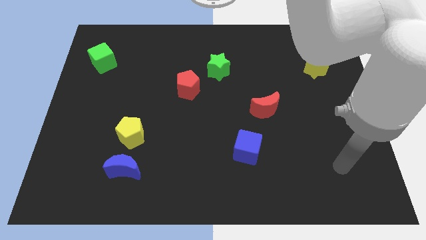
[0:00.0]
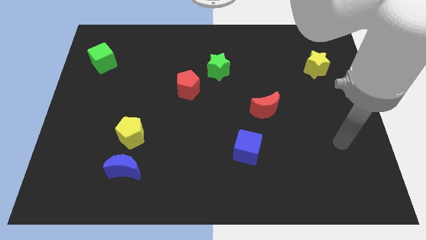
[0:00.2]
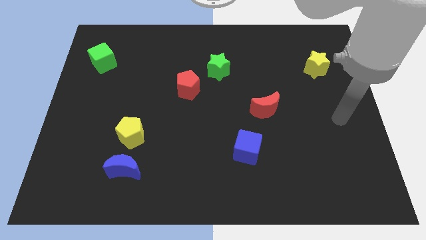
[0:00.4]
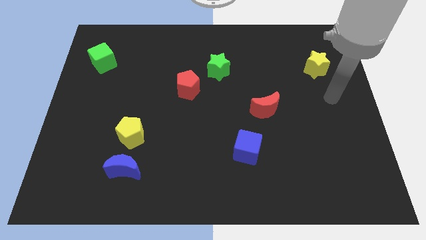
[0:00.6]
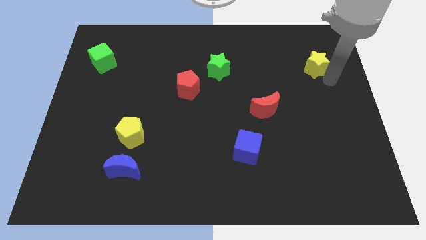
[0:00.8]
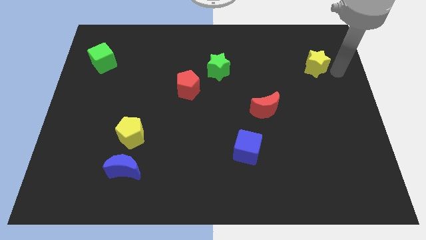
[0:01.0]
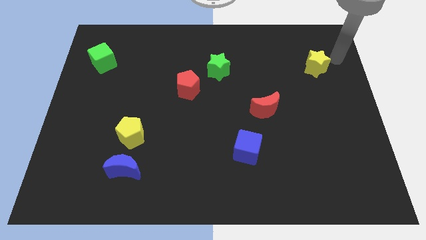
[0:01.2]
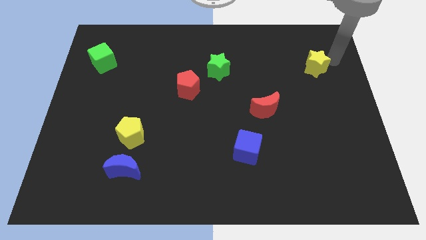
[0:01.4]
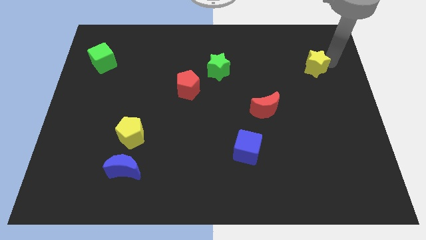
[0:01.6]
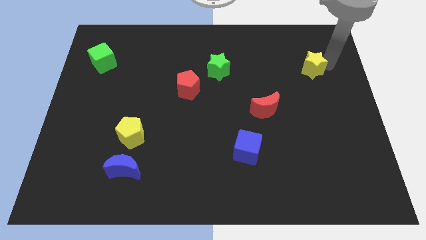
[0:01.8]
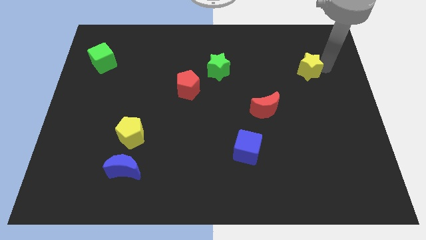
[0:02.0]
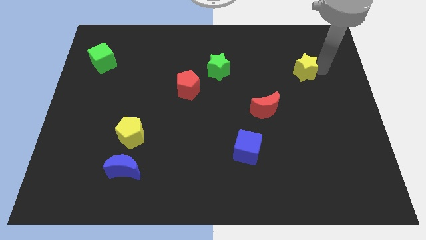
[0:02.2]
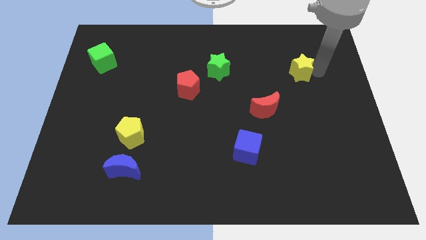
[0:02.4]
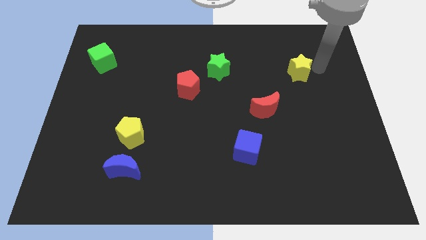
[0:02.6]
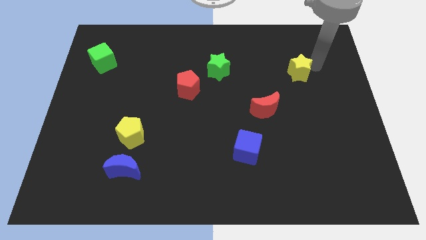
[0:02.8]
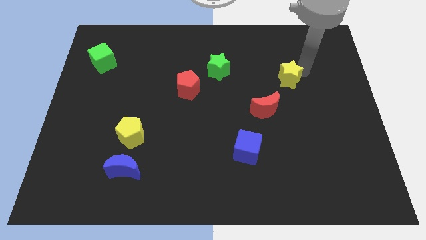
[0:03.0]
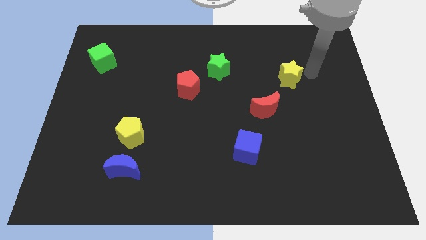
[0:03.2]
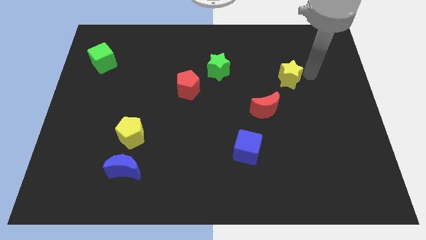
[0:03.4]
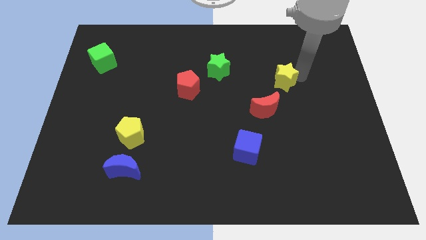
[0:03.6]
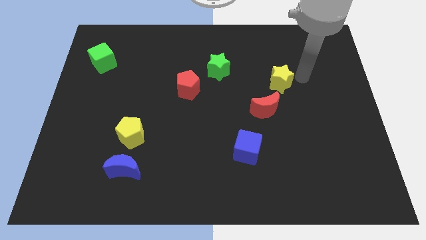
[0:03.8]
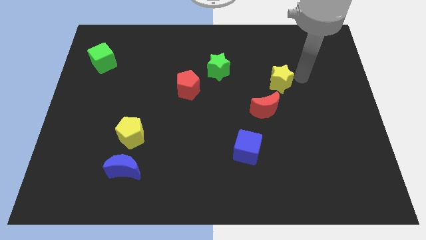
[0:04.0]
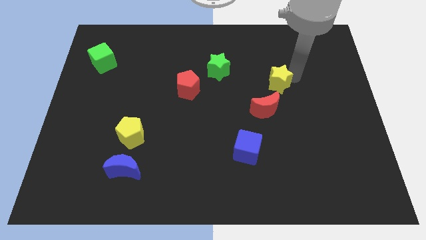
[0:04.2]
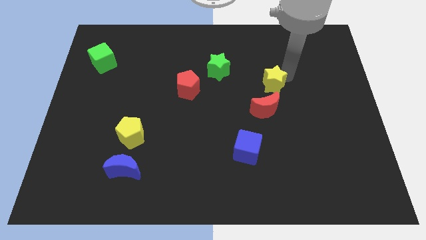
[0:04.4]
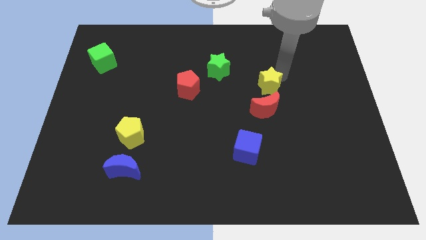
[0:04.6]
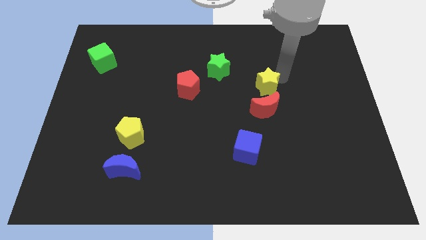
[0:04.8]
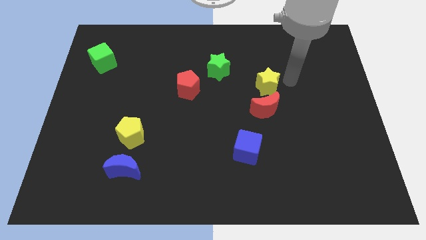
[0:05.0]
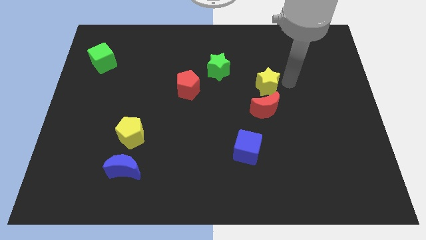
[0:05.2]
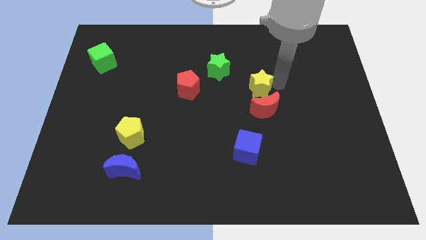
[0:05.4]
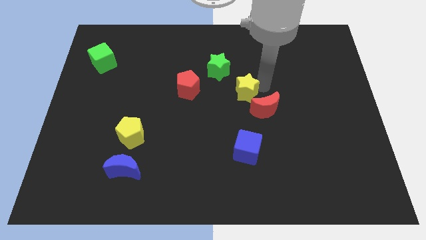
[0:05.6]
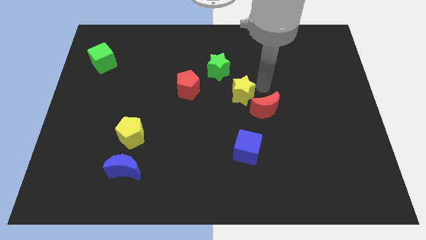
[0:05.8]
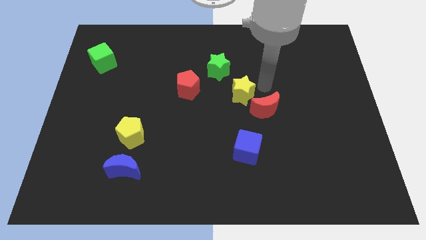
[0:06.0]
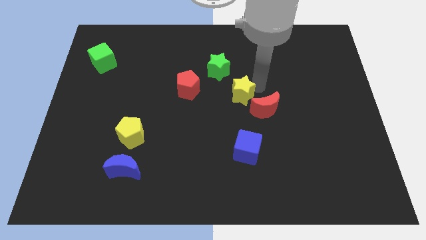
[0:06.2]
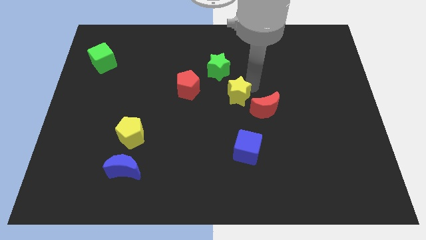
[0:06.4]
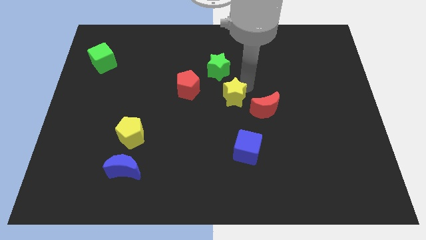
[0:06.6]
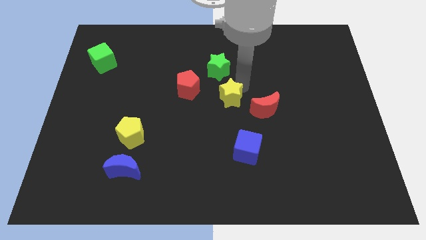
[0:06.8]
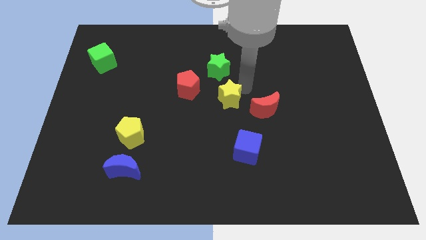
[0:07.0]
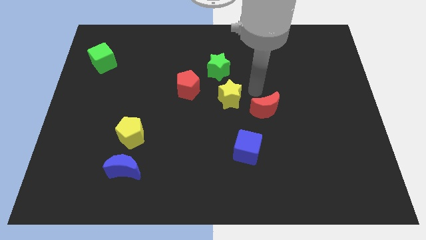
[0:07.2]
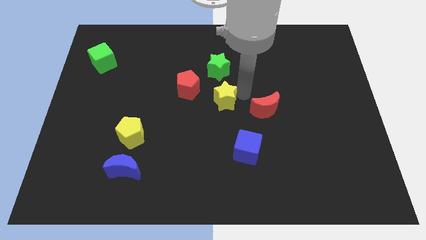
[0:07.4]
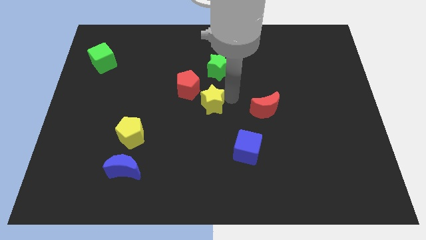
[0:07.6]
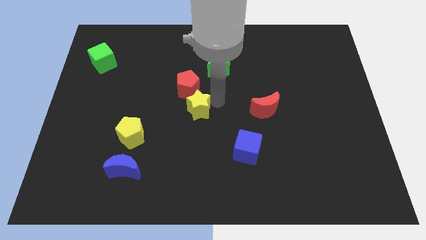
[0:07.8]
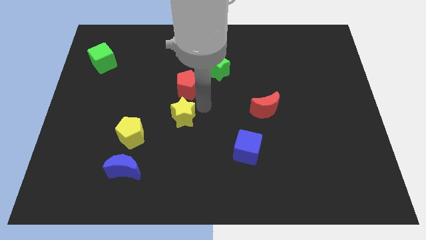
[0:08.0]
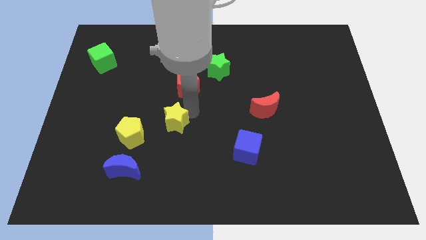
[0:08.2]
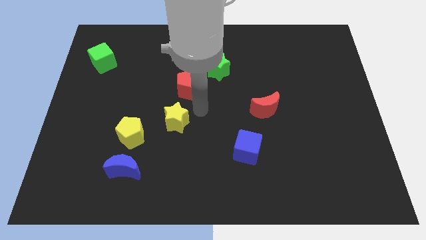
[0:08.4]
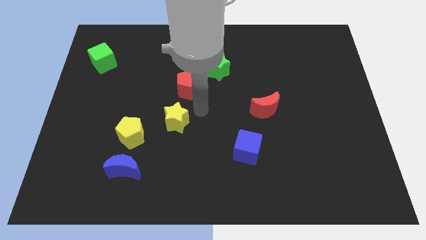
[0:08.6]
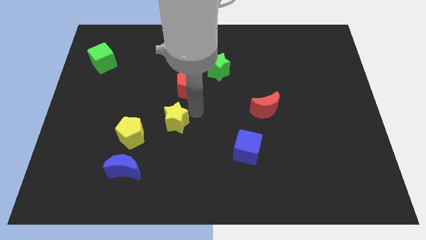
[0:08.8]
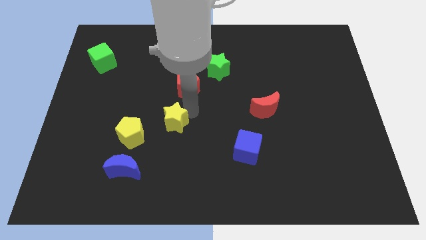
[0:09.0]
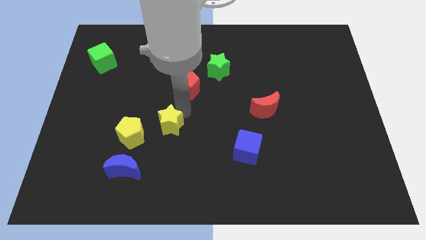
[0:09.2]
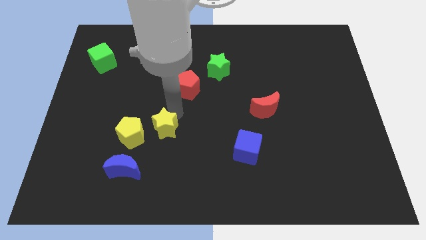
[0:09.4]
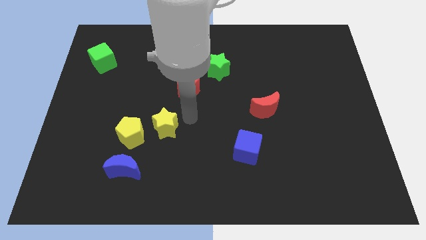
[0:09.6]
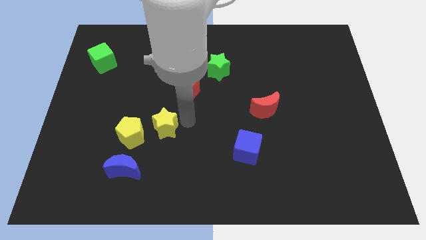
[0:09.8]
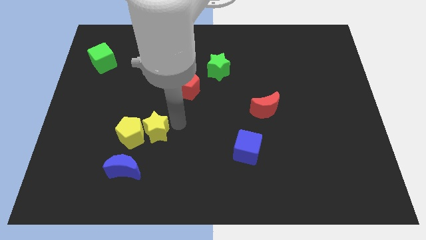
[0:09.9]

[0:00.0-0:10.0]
move the yellow star next to the yellow pentagon

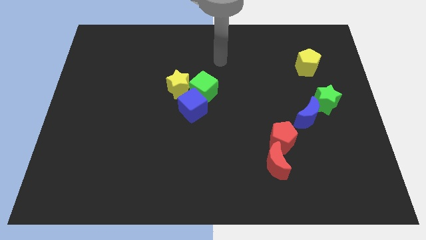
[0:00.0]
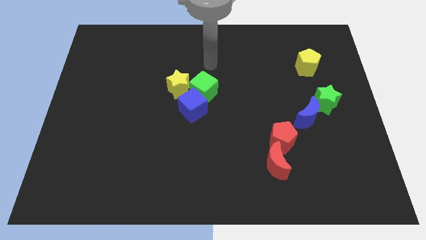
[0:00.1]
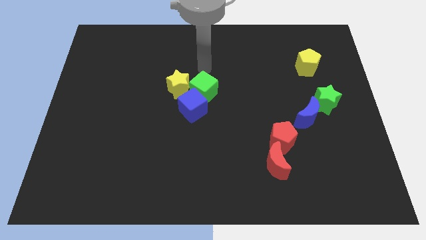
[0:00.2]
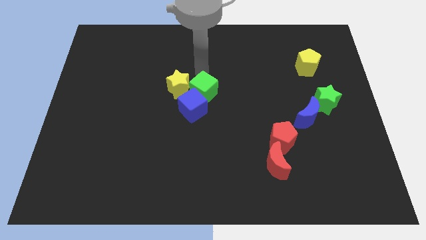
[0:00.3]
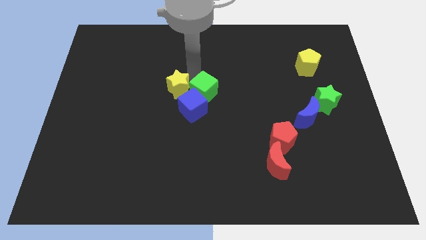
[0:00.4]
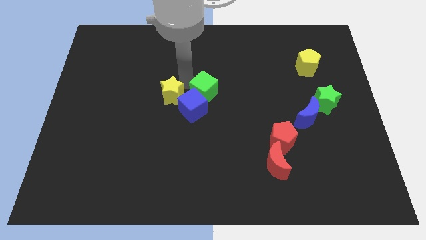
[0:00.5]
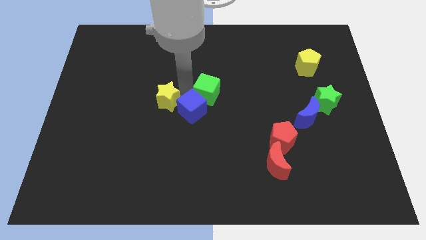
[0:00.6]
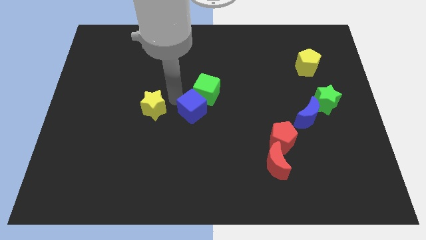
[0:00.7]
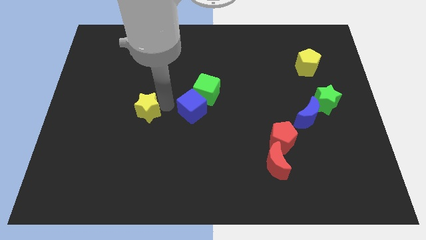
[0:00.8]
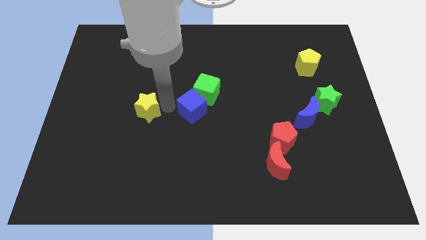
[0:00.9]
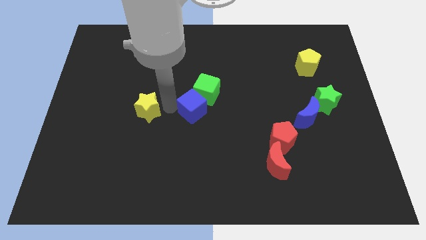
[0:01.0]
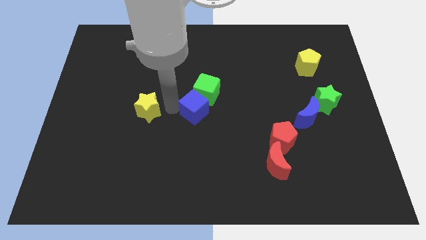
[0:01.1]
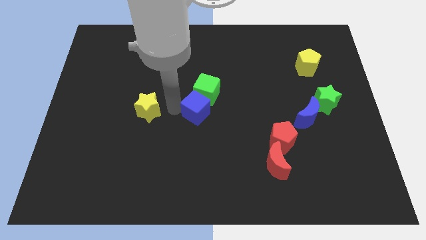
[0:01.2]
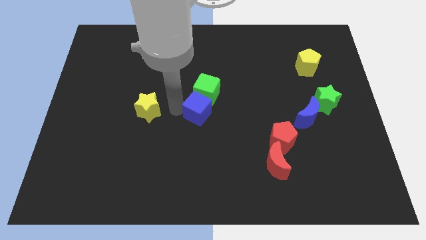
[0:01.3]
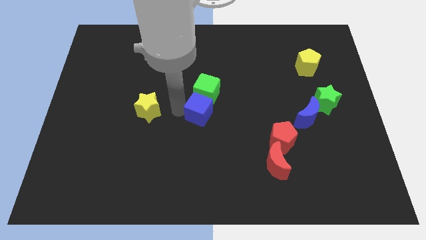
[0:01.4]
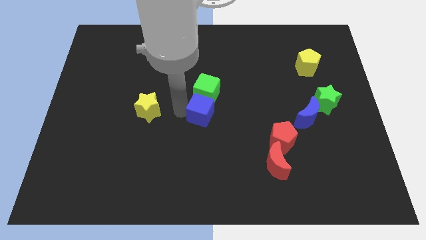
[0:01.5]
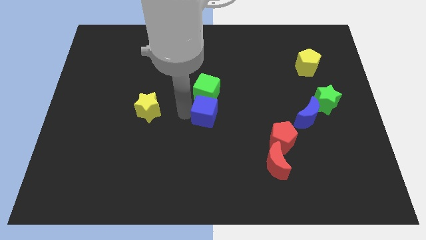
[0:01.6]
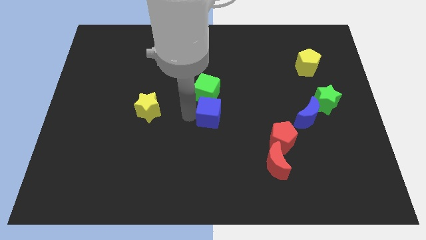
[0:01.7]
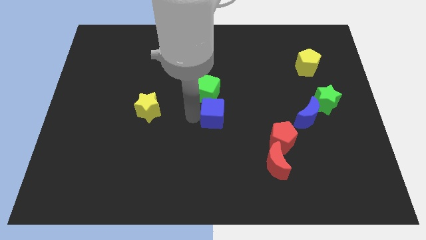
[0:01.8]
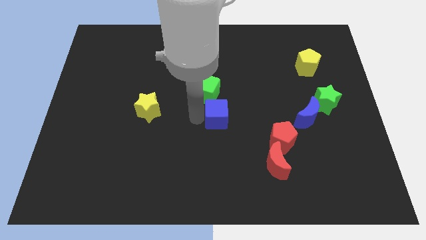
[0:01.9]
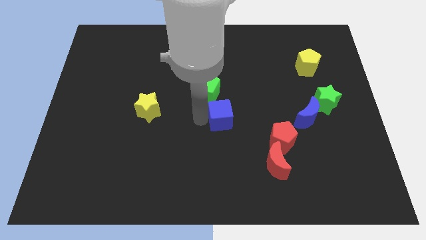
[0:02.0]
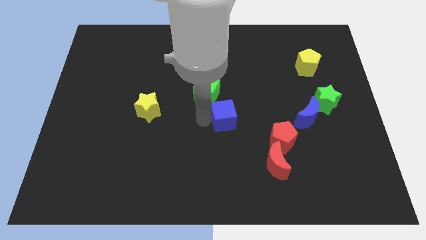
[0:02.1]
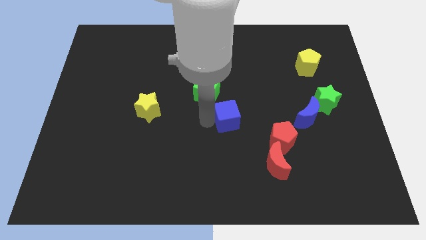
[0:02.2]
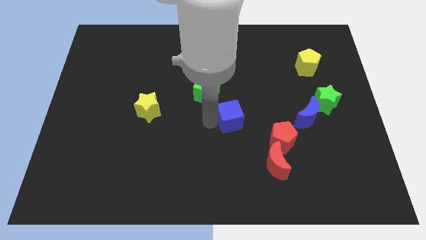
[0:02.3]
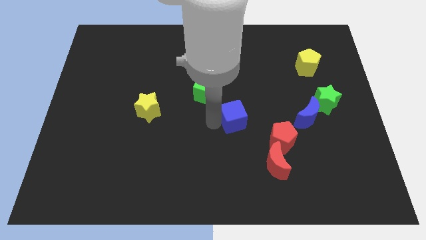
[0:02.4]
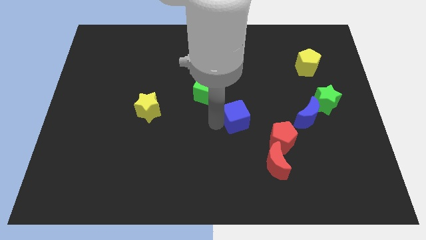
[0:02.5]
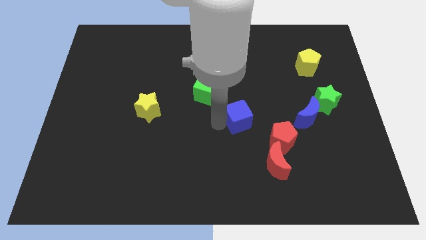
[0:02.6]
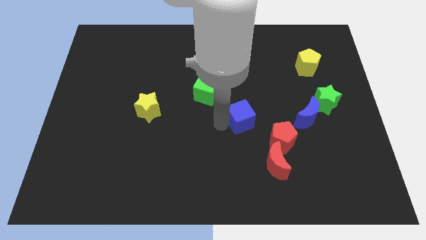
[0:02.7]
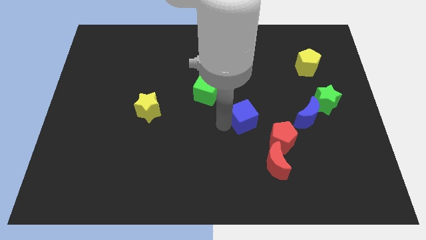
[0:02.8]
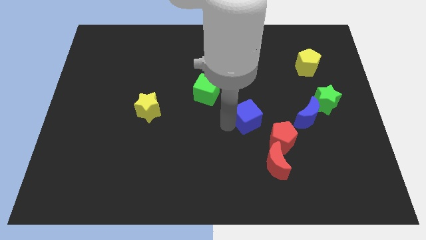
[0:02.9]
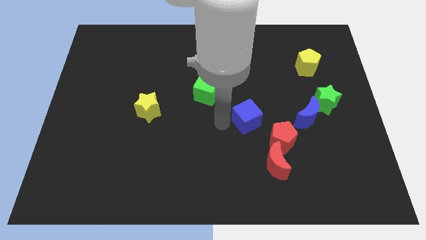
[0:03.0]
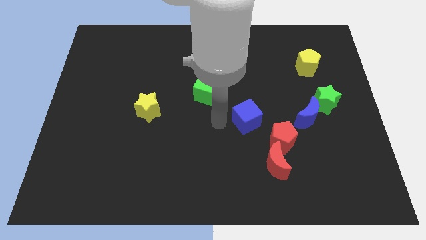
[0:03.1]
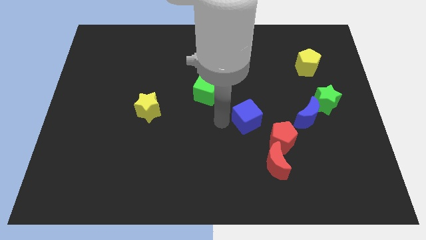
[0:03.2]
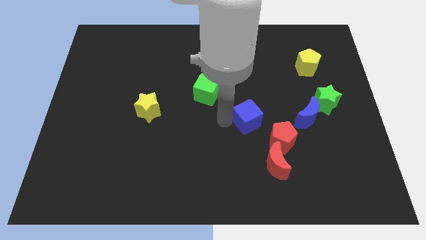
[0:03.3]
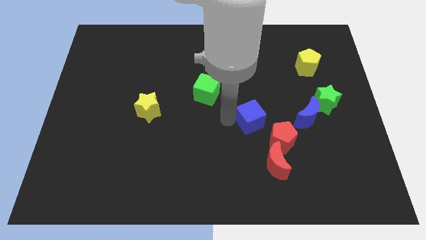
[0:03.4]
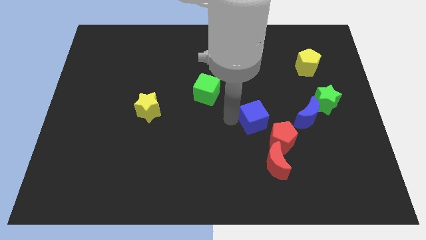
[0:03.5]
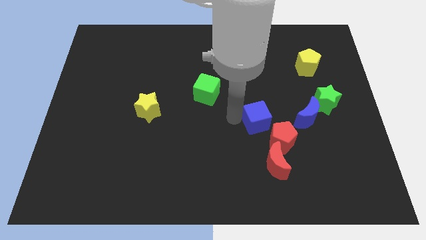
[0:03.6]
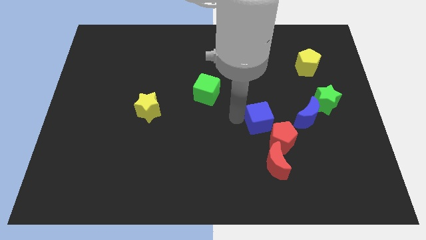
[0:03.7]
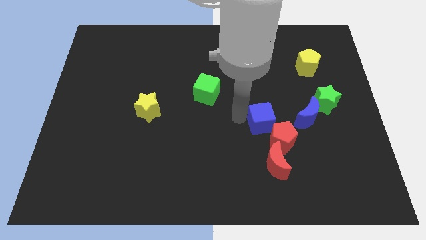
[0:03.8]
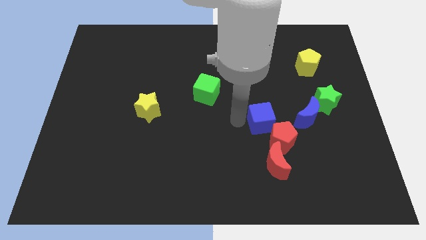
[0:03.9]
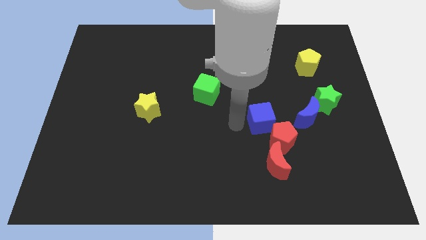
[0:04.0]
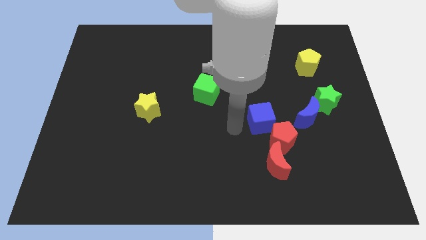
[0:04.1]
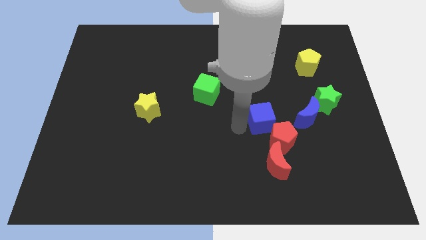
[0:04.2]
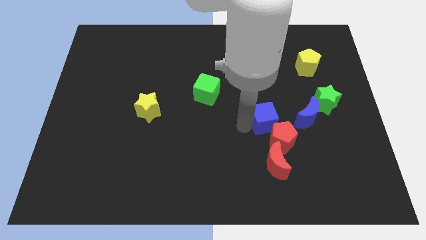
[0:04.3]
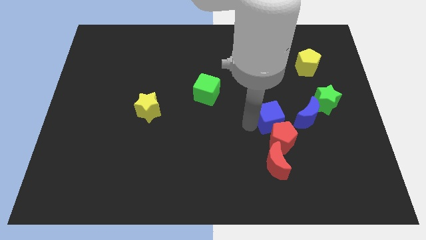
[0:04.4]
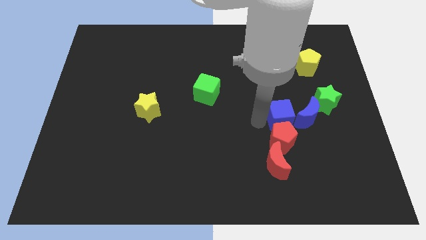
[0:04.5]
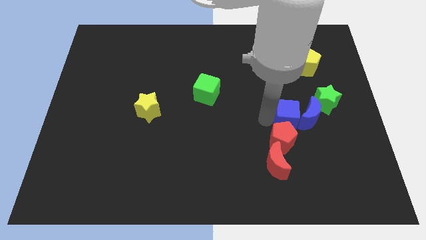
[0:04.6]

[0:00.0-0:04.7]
slide the blue cube towards the blue moon
